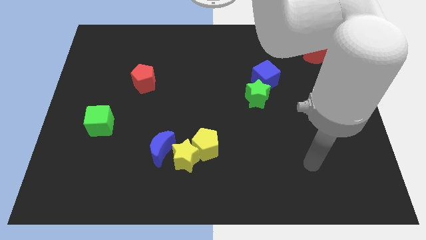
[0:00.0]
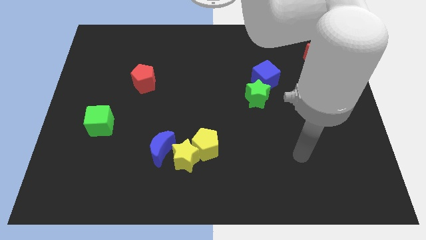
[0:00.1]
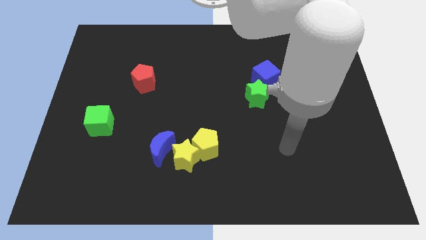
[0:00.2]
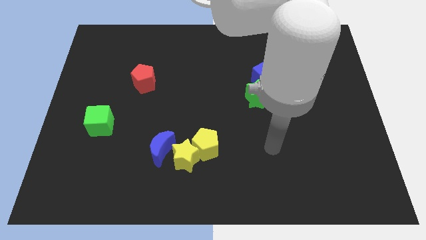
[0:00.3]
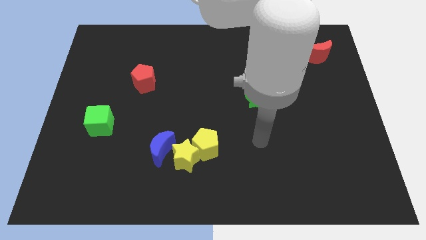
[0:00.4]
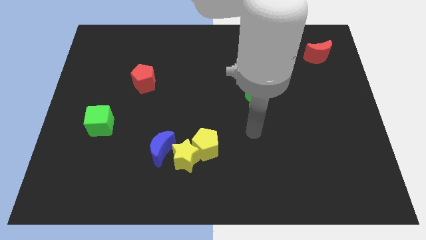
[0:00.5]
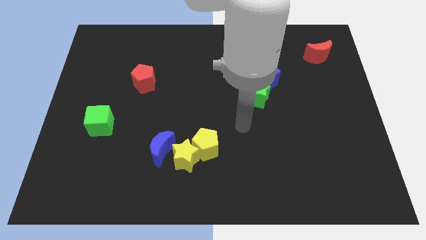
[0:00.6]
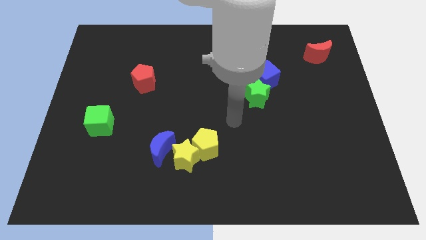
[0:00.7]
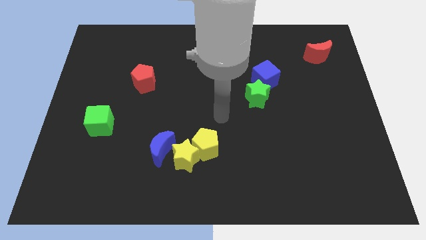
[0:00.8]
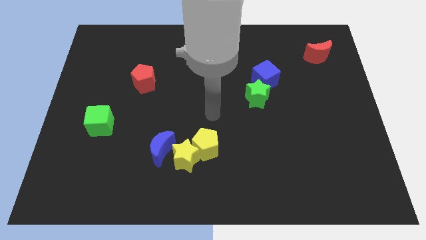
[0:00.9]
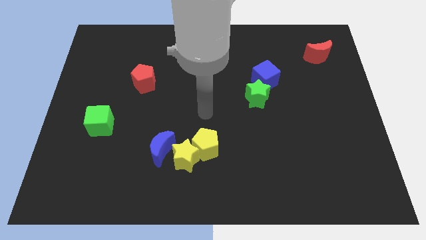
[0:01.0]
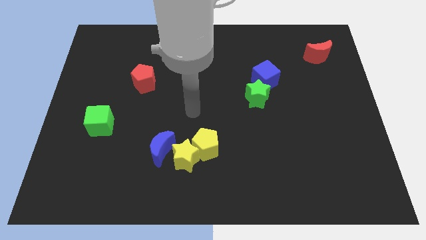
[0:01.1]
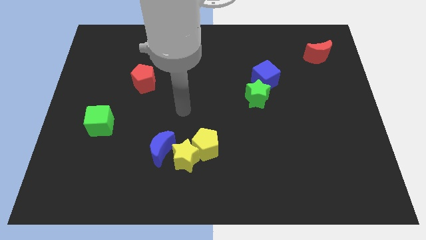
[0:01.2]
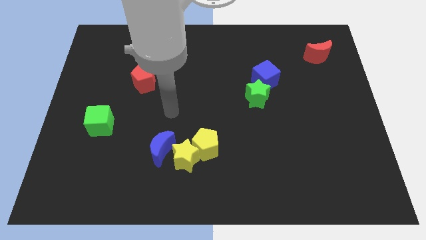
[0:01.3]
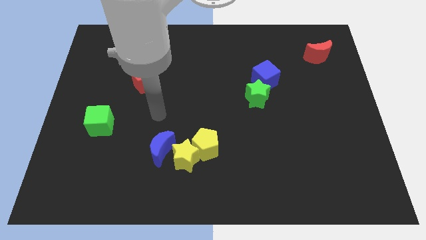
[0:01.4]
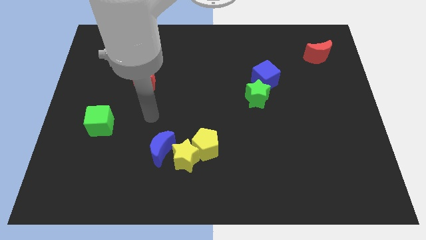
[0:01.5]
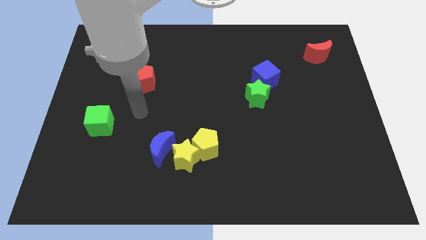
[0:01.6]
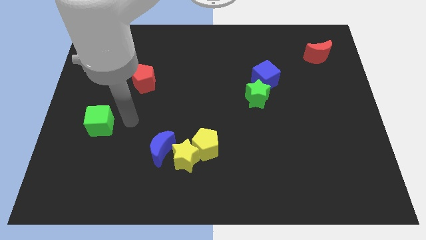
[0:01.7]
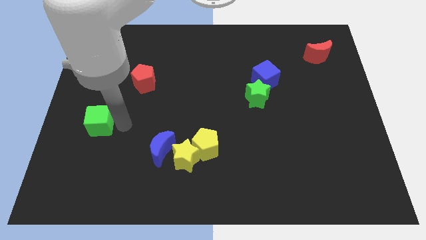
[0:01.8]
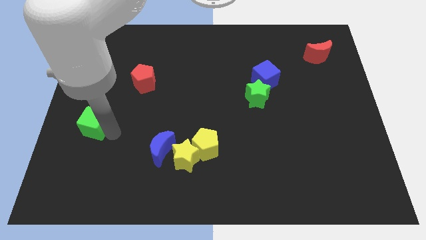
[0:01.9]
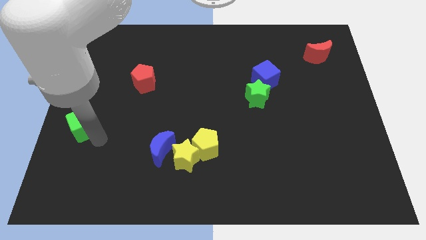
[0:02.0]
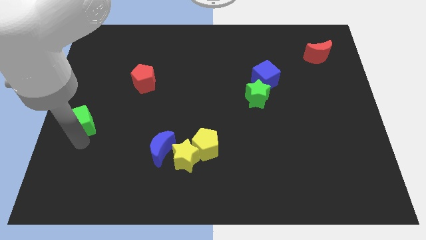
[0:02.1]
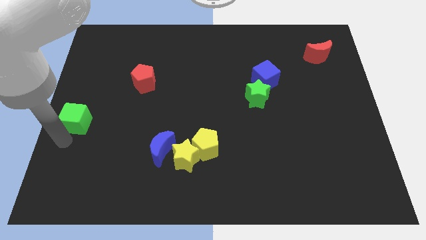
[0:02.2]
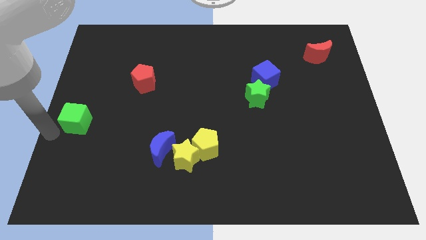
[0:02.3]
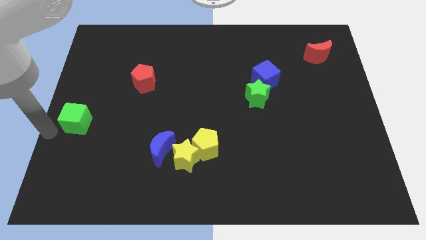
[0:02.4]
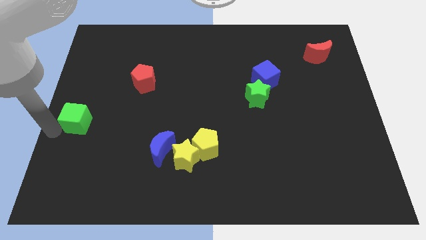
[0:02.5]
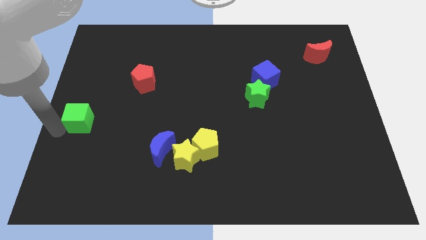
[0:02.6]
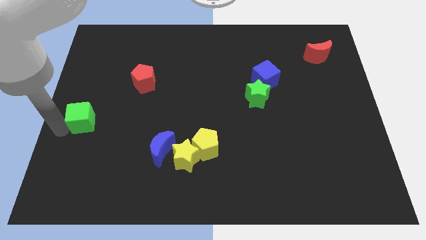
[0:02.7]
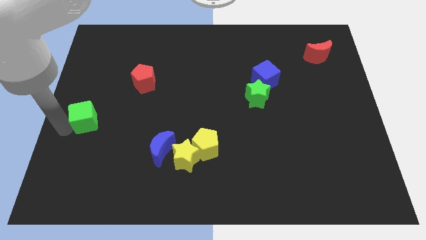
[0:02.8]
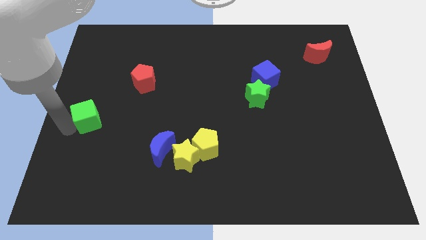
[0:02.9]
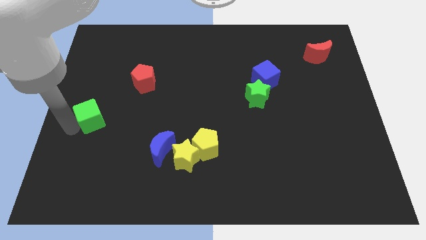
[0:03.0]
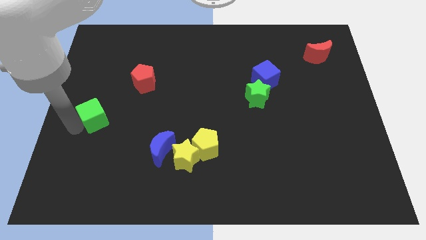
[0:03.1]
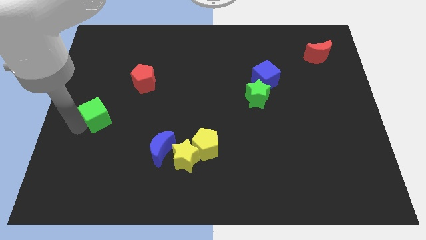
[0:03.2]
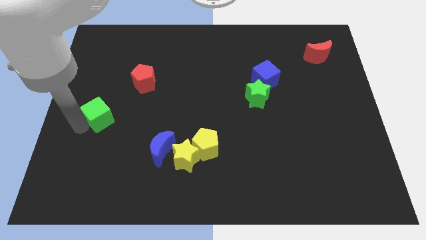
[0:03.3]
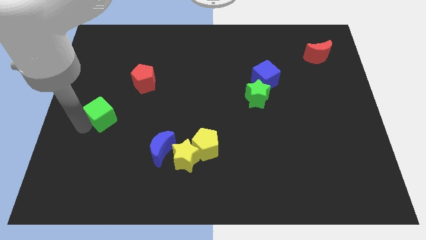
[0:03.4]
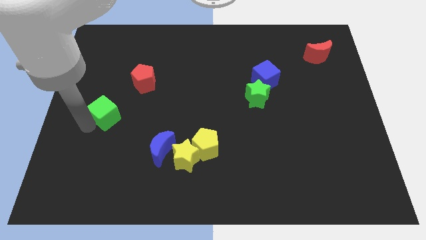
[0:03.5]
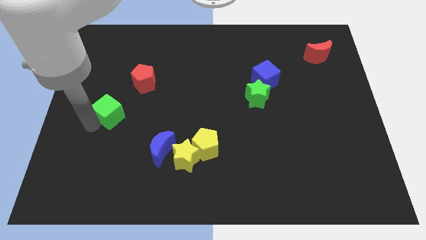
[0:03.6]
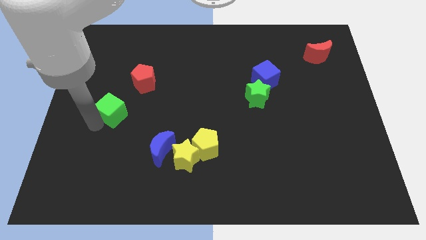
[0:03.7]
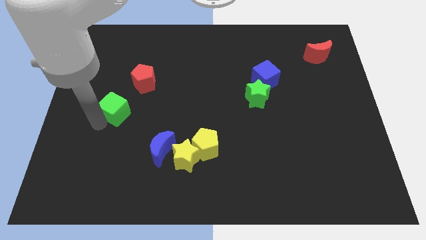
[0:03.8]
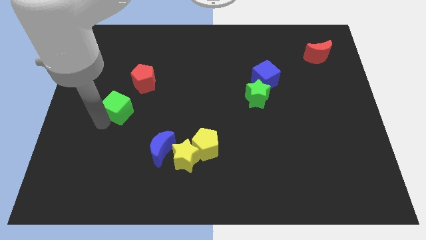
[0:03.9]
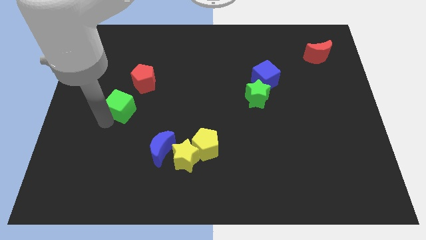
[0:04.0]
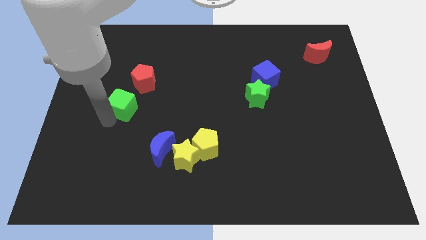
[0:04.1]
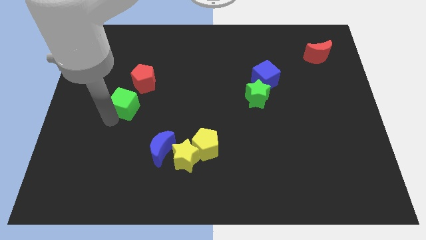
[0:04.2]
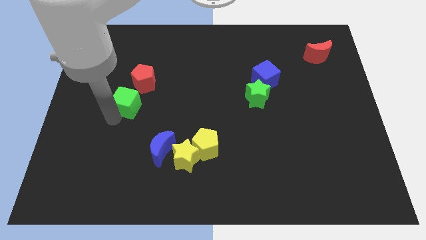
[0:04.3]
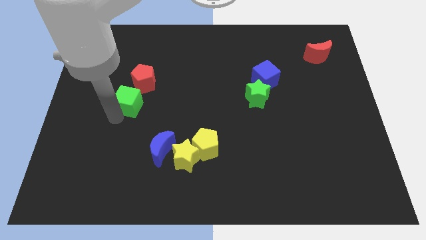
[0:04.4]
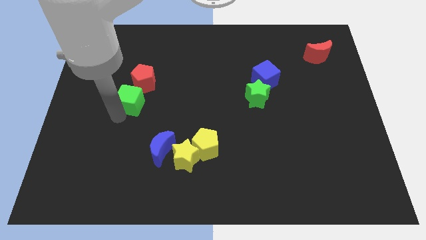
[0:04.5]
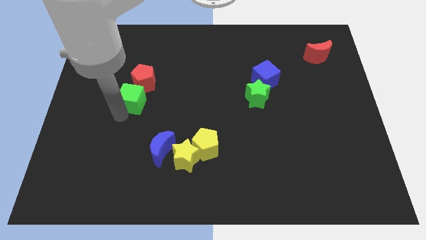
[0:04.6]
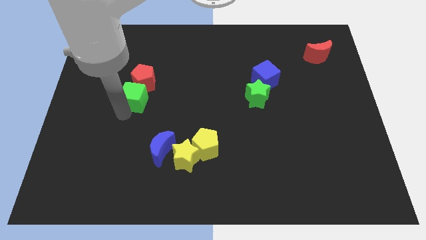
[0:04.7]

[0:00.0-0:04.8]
slide the green cube towards the red pentagon

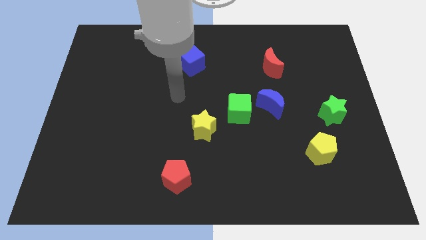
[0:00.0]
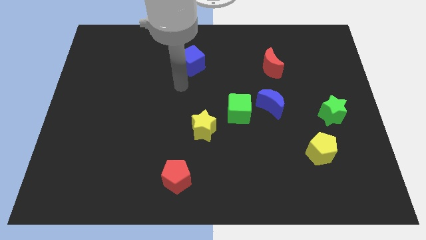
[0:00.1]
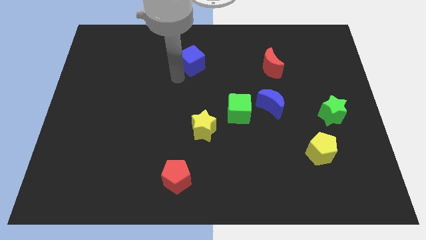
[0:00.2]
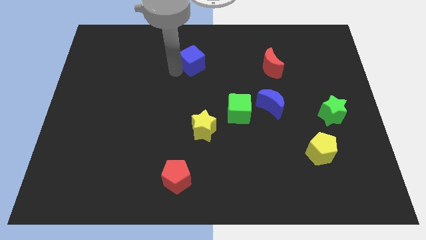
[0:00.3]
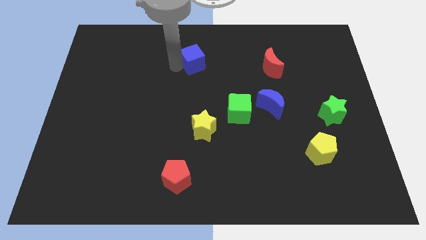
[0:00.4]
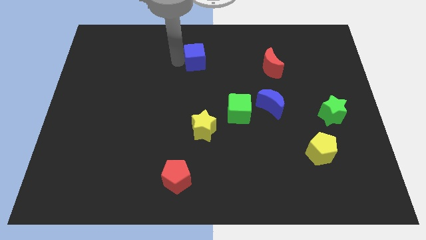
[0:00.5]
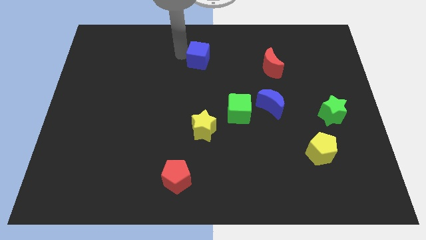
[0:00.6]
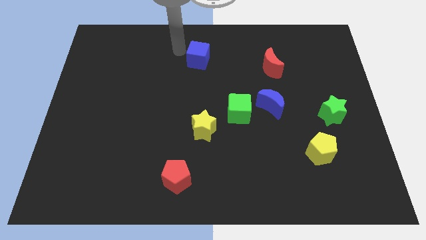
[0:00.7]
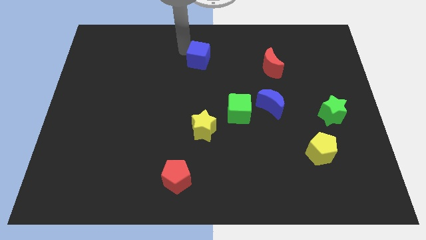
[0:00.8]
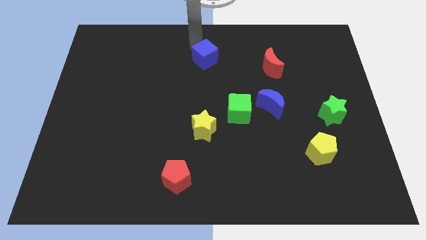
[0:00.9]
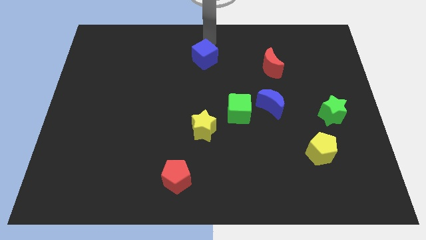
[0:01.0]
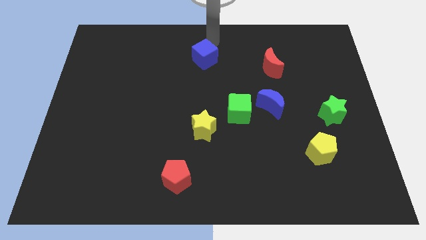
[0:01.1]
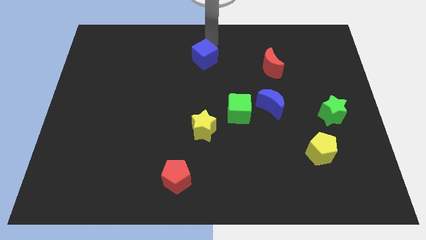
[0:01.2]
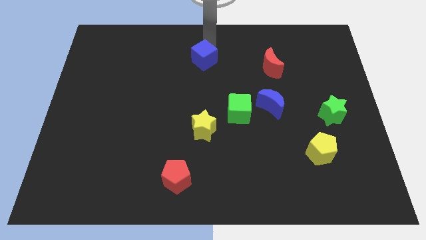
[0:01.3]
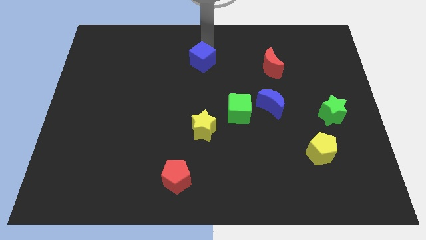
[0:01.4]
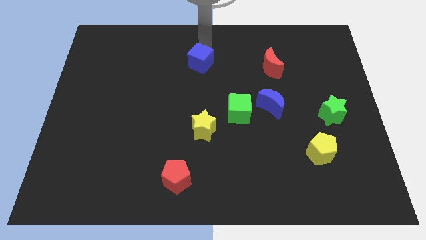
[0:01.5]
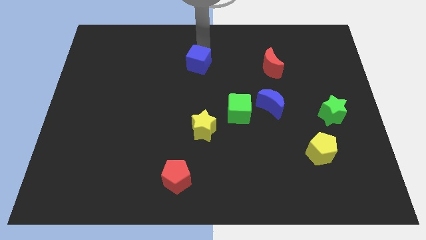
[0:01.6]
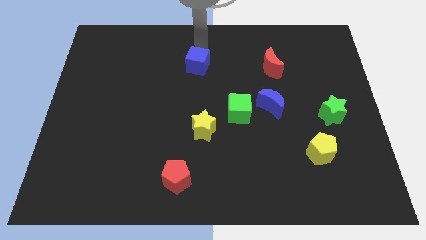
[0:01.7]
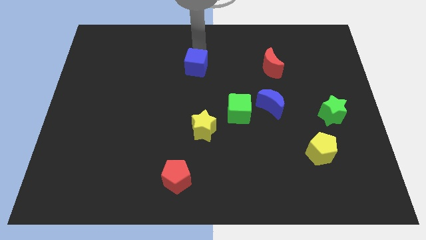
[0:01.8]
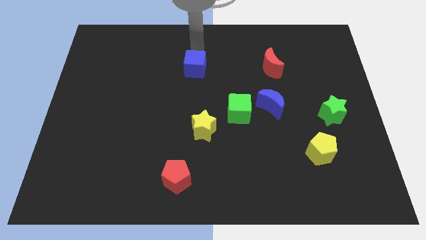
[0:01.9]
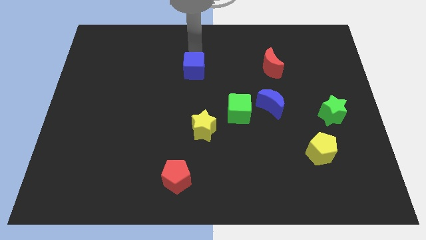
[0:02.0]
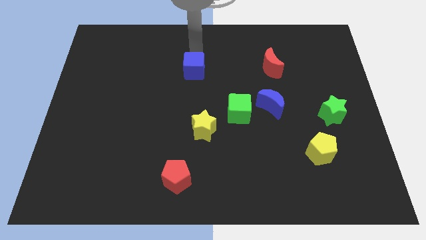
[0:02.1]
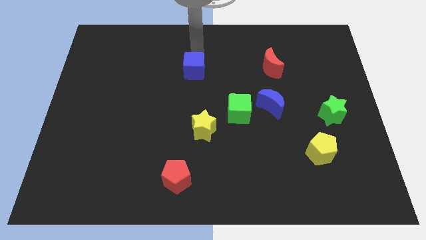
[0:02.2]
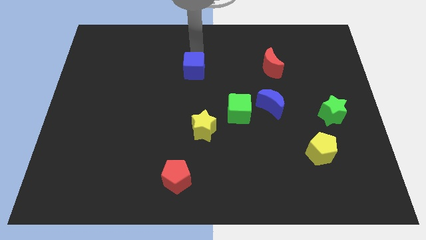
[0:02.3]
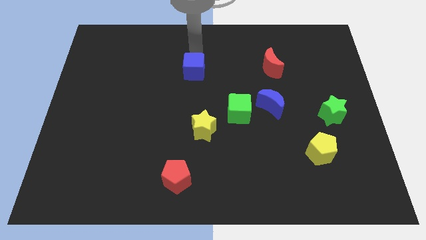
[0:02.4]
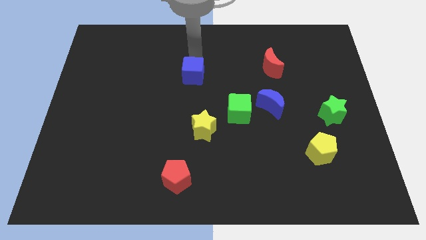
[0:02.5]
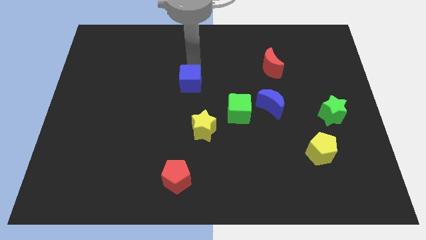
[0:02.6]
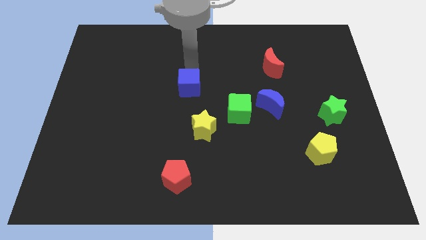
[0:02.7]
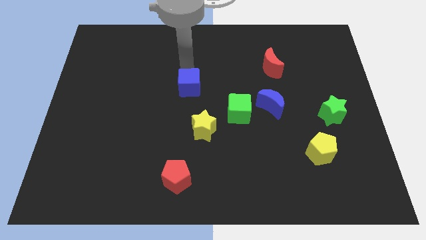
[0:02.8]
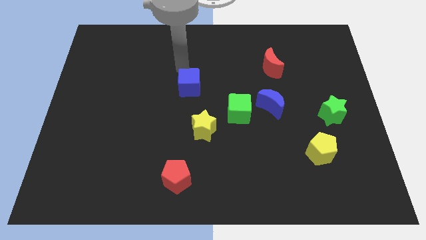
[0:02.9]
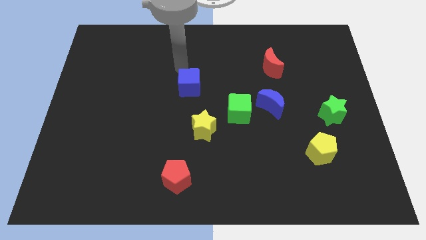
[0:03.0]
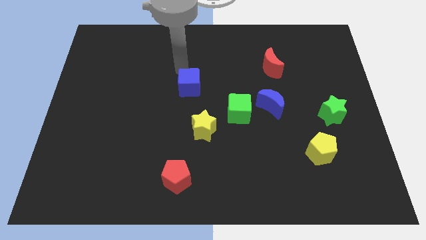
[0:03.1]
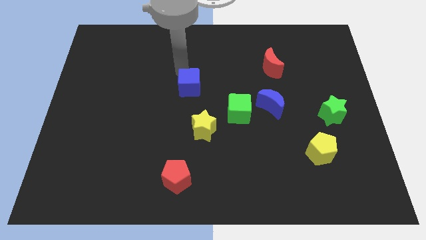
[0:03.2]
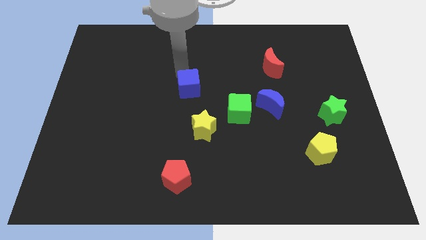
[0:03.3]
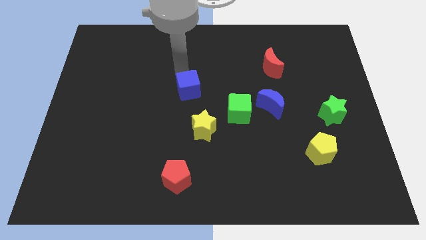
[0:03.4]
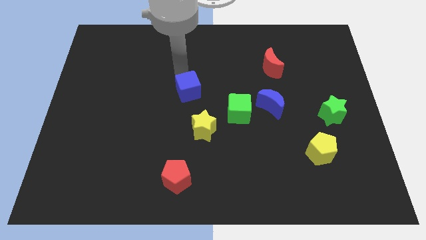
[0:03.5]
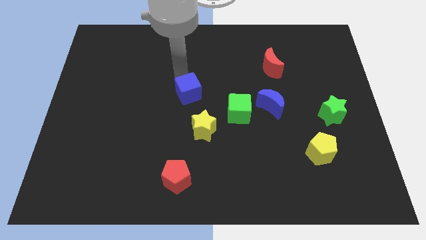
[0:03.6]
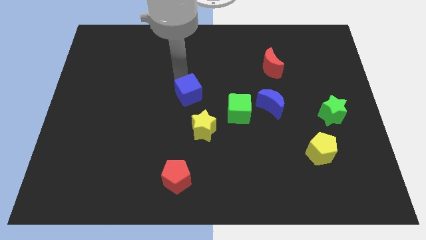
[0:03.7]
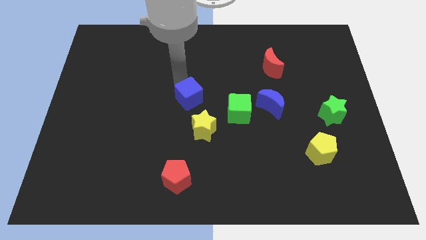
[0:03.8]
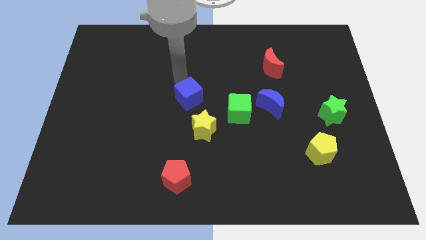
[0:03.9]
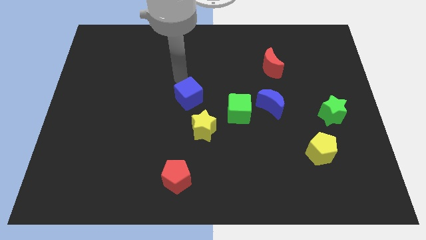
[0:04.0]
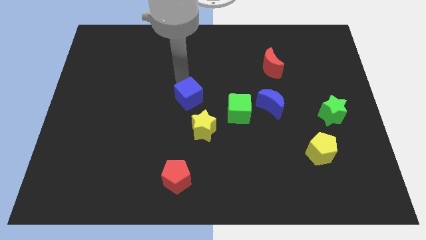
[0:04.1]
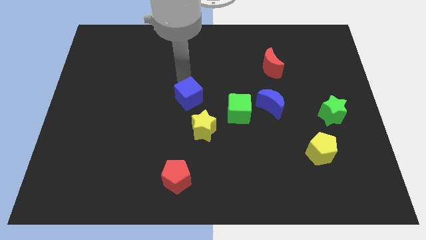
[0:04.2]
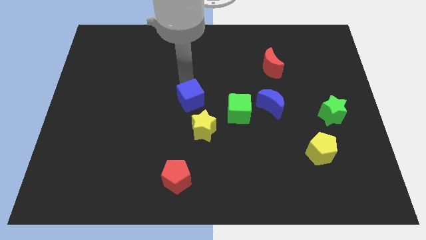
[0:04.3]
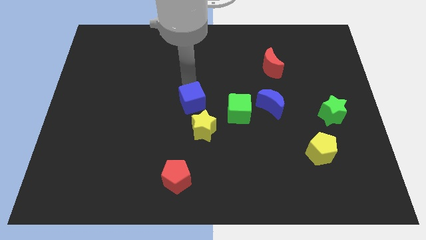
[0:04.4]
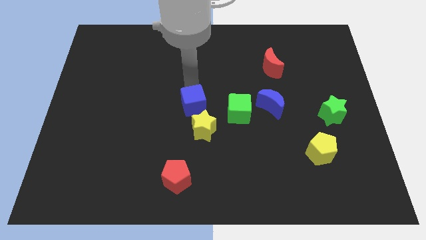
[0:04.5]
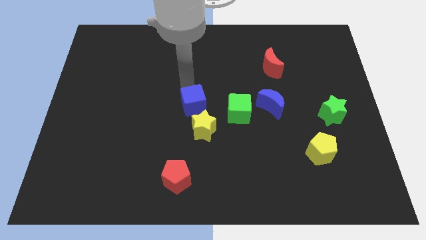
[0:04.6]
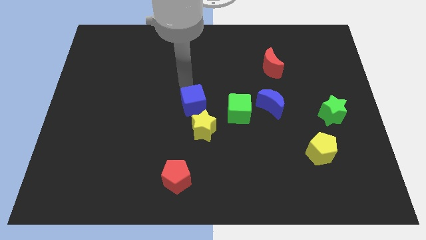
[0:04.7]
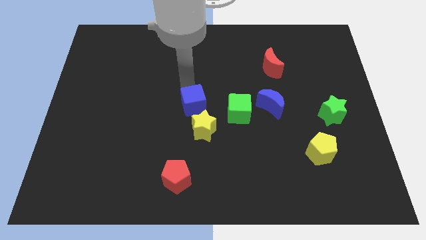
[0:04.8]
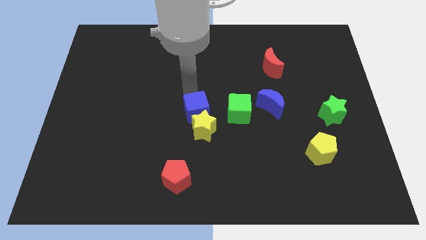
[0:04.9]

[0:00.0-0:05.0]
push the blue cube to the yellow star
